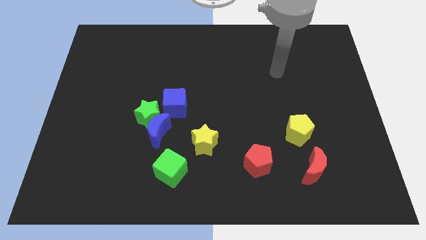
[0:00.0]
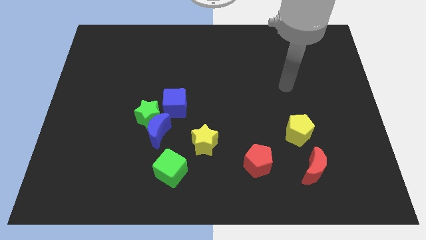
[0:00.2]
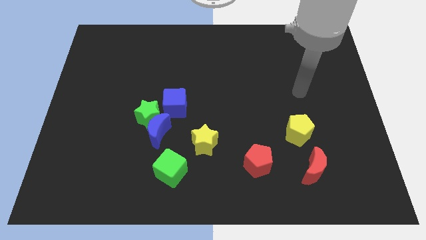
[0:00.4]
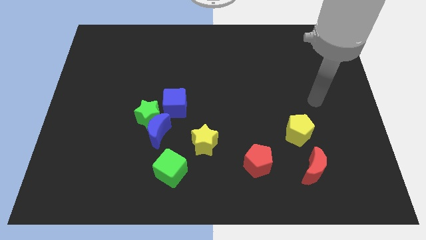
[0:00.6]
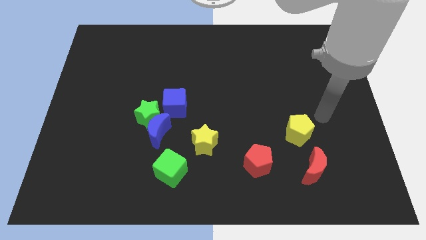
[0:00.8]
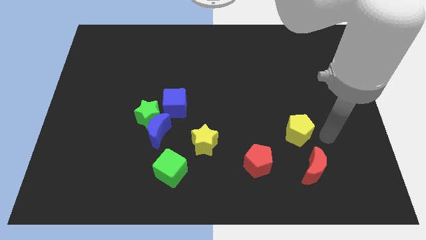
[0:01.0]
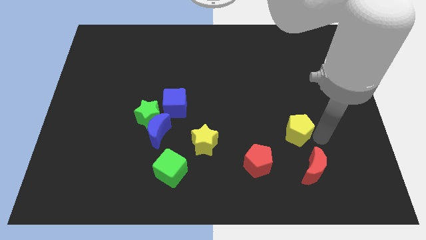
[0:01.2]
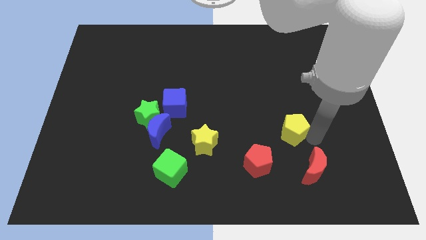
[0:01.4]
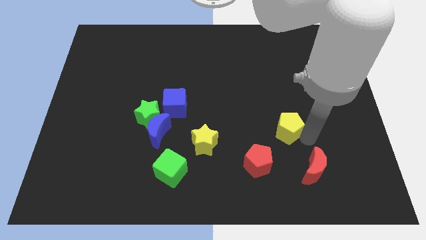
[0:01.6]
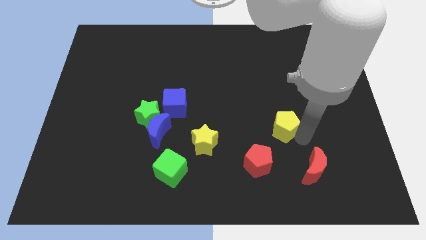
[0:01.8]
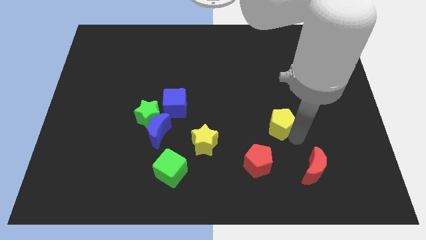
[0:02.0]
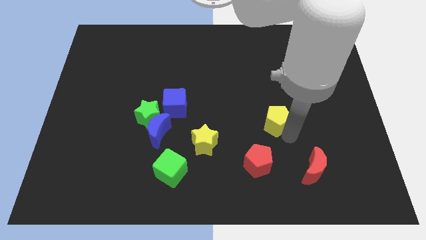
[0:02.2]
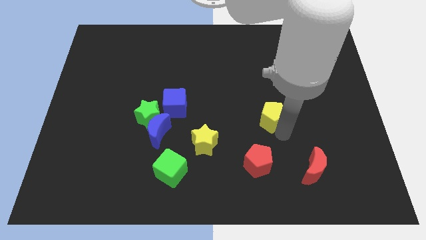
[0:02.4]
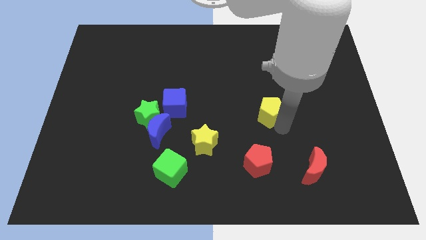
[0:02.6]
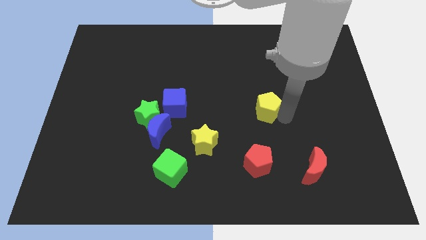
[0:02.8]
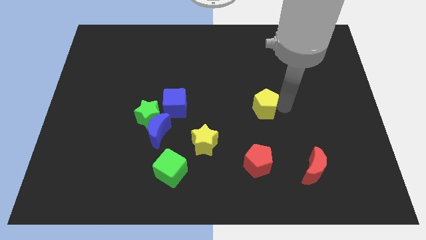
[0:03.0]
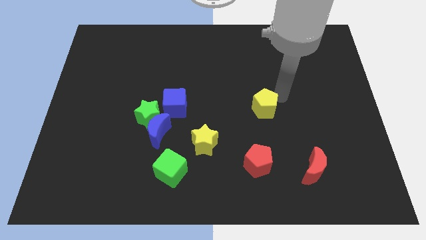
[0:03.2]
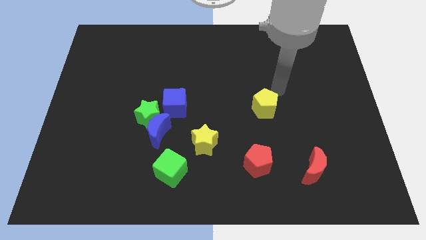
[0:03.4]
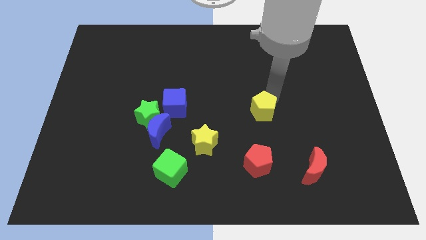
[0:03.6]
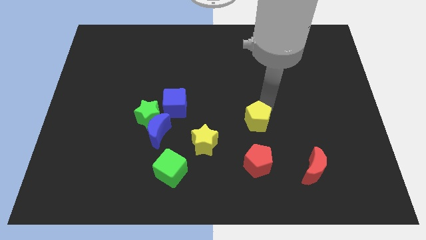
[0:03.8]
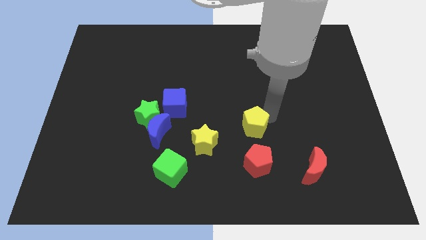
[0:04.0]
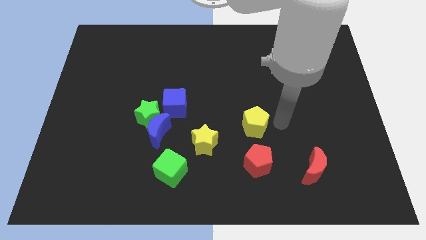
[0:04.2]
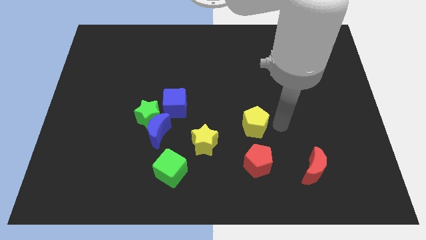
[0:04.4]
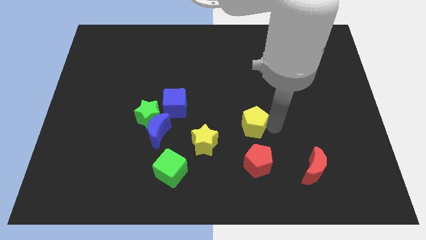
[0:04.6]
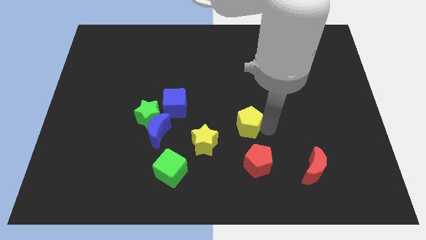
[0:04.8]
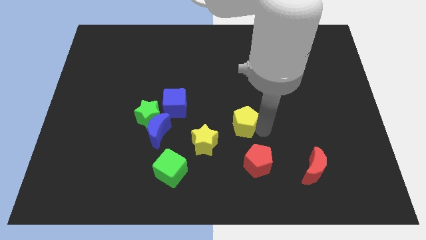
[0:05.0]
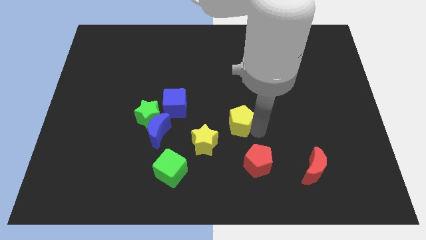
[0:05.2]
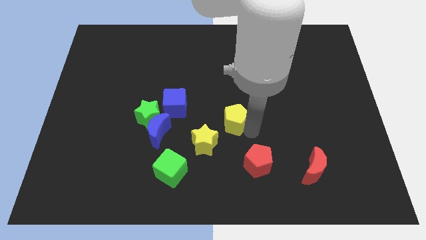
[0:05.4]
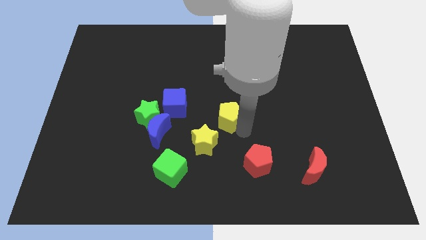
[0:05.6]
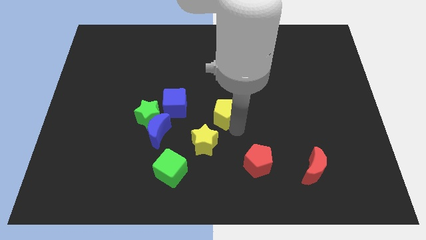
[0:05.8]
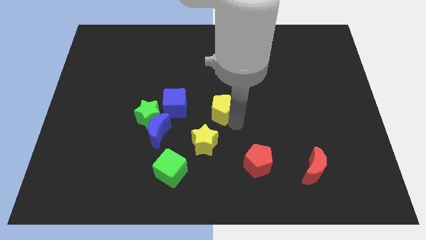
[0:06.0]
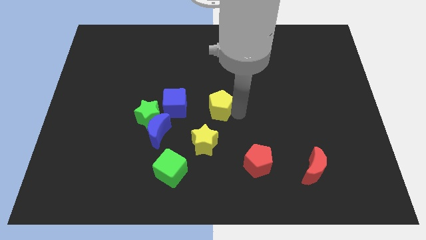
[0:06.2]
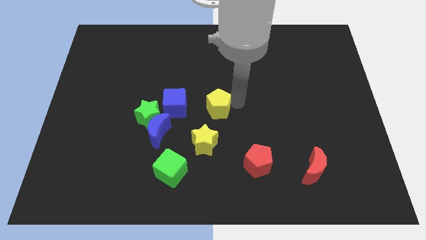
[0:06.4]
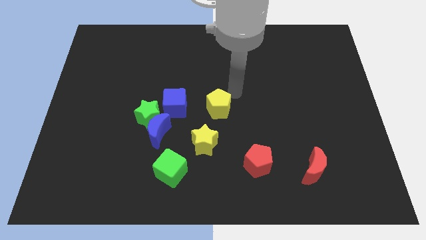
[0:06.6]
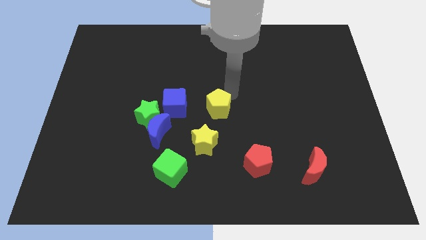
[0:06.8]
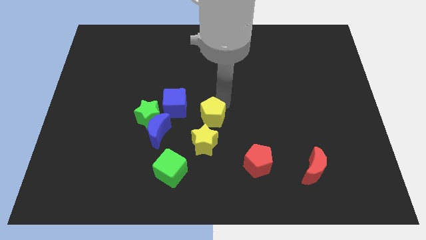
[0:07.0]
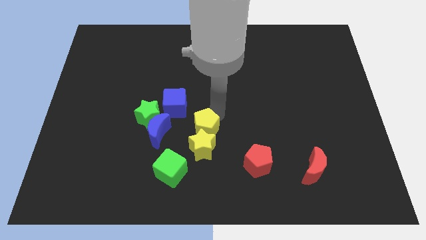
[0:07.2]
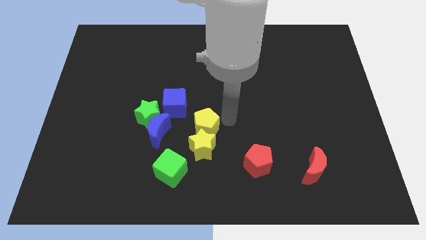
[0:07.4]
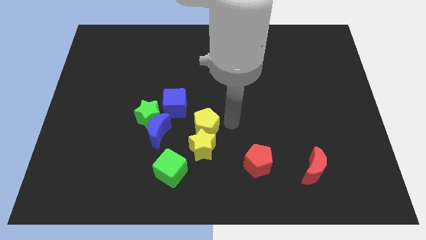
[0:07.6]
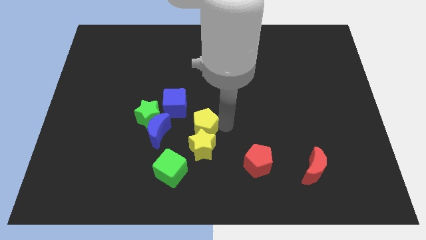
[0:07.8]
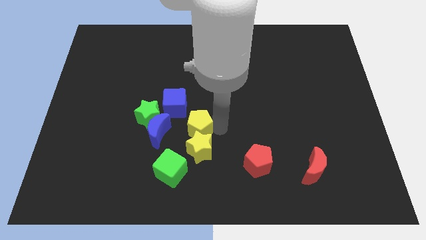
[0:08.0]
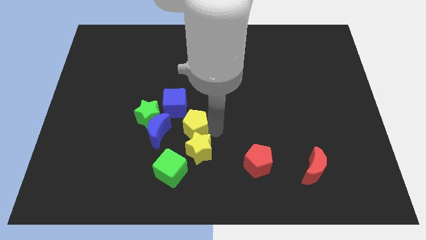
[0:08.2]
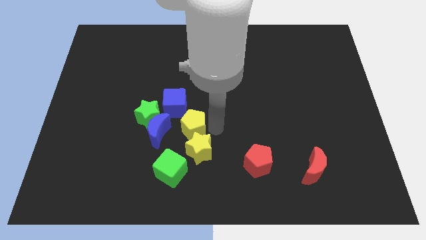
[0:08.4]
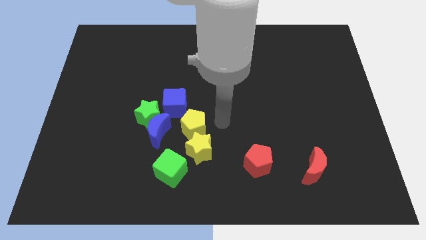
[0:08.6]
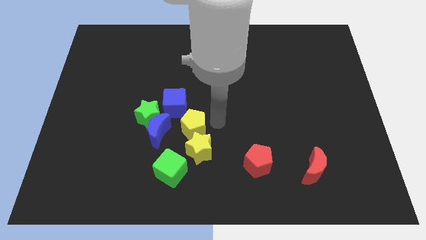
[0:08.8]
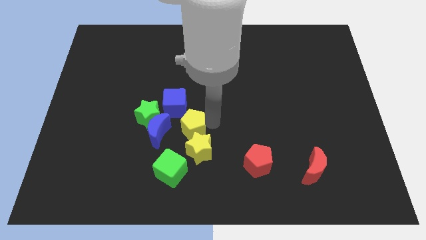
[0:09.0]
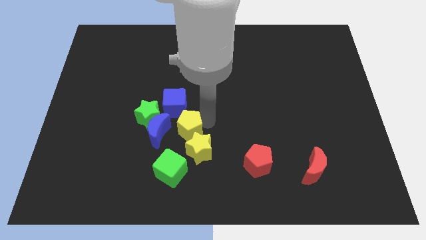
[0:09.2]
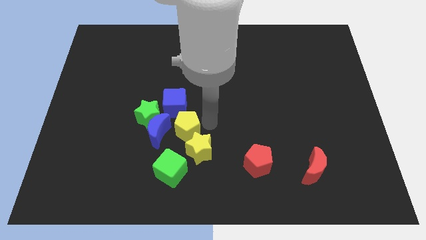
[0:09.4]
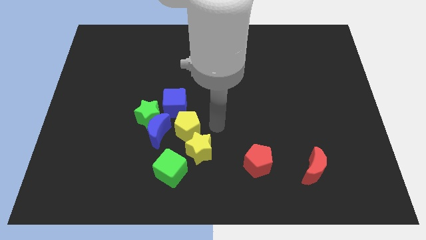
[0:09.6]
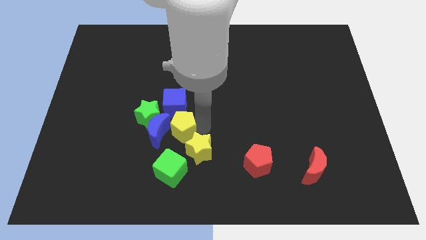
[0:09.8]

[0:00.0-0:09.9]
put the yellow pentagon next to the blue moon

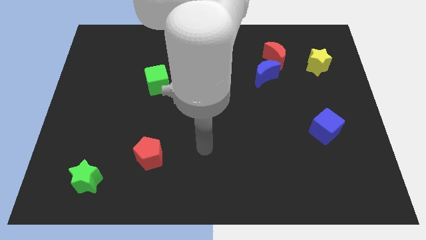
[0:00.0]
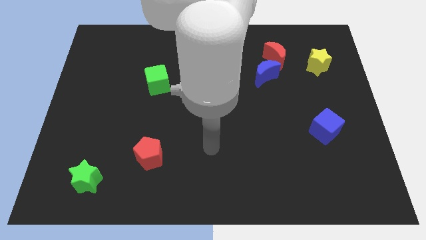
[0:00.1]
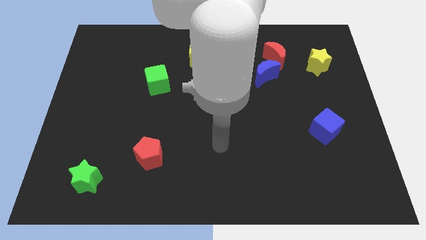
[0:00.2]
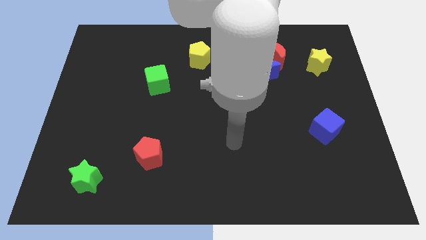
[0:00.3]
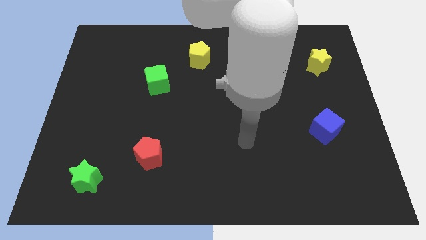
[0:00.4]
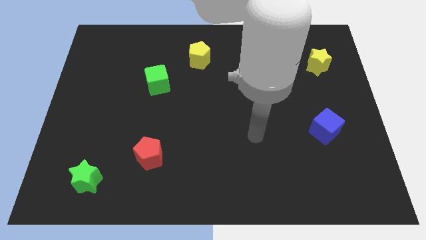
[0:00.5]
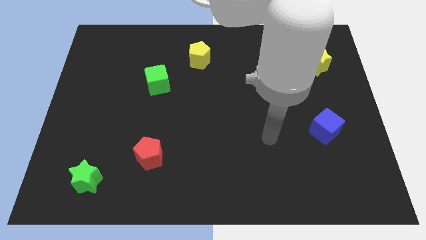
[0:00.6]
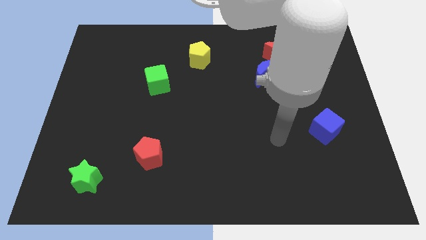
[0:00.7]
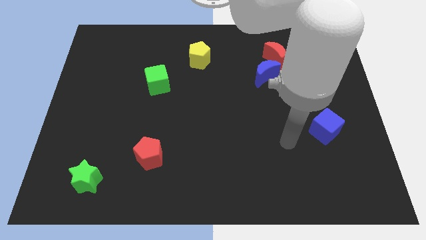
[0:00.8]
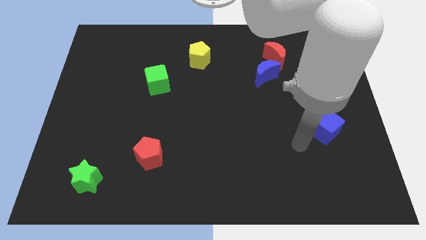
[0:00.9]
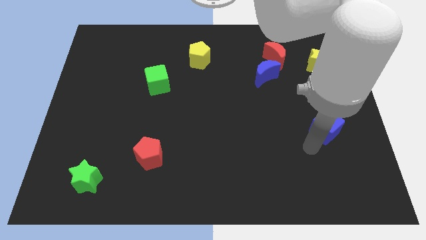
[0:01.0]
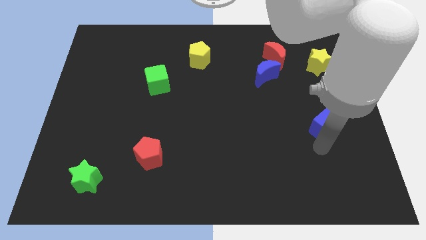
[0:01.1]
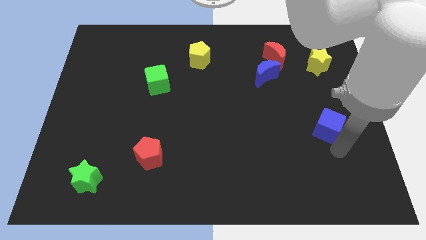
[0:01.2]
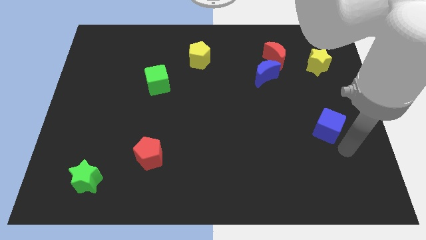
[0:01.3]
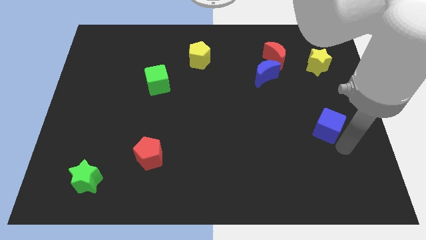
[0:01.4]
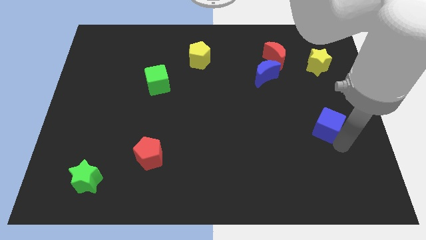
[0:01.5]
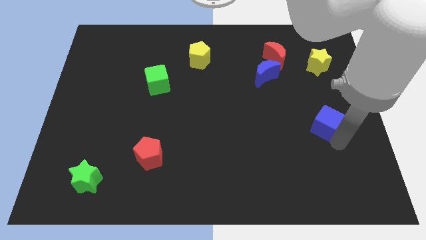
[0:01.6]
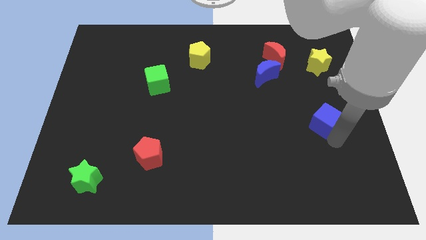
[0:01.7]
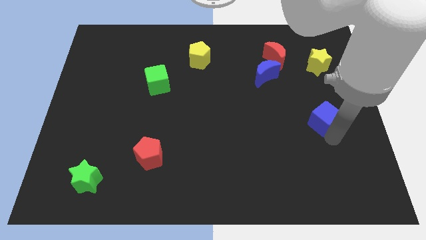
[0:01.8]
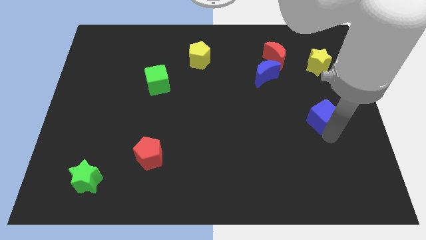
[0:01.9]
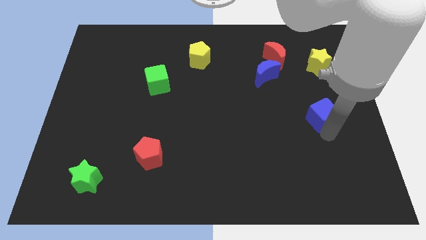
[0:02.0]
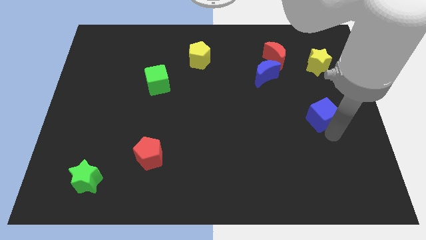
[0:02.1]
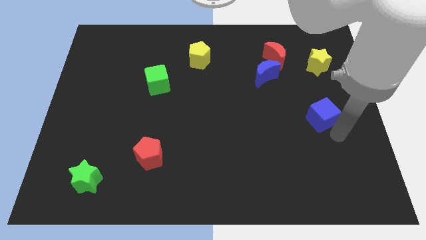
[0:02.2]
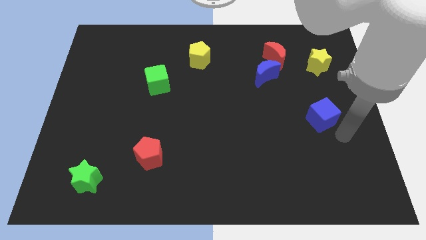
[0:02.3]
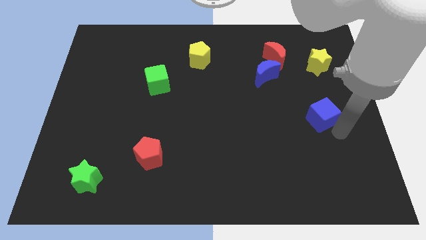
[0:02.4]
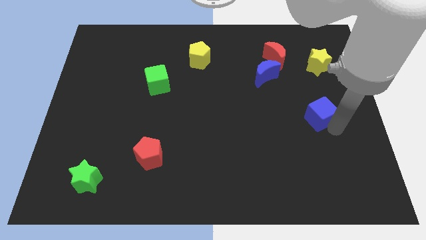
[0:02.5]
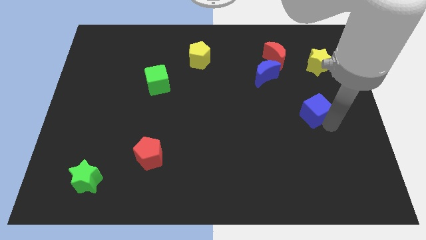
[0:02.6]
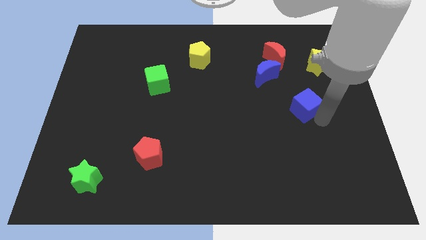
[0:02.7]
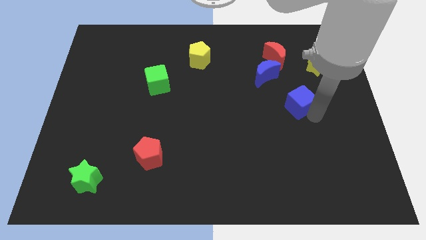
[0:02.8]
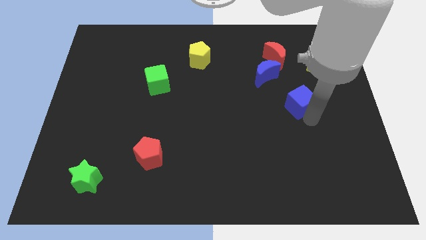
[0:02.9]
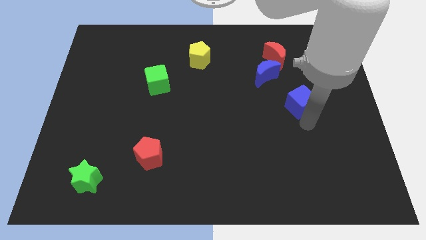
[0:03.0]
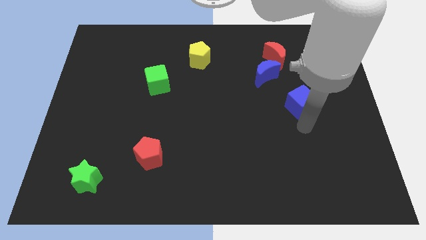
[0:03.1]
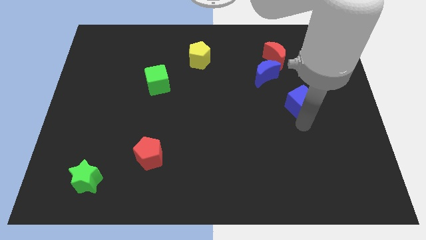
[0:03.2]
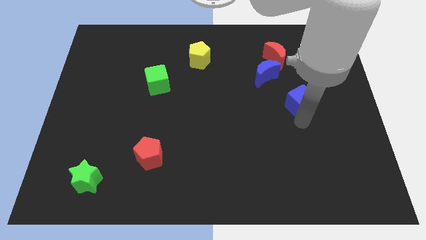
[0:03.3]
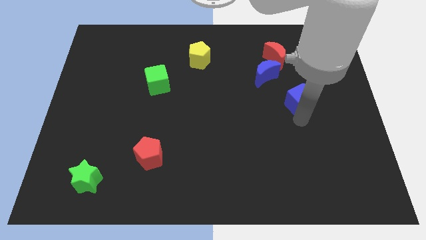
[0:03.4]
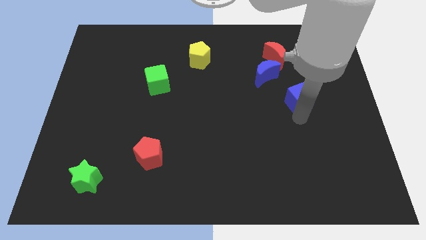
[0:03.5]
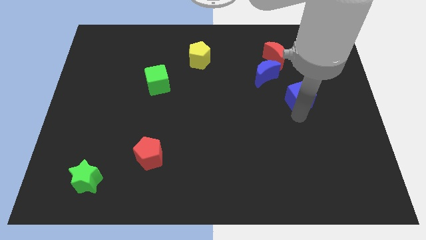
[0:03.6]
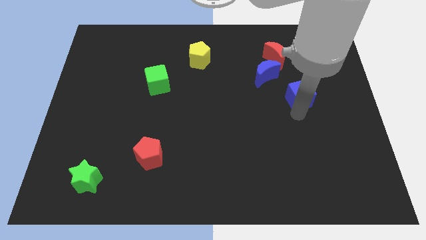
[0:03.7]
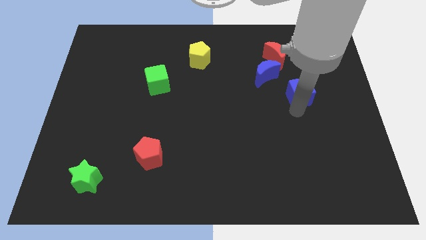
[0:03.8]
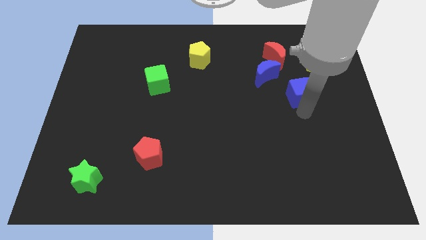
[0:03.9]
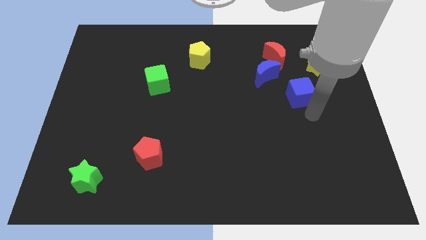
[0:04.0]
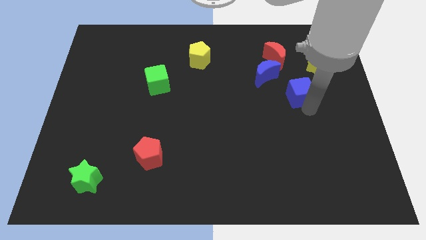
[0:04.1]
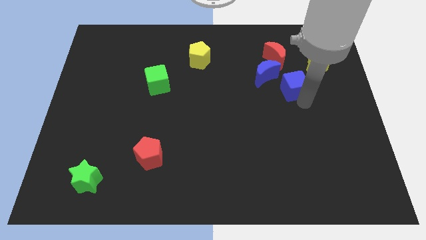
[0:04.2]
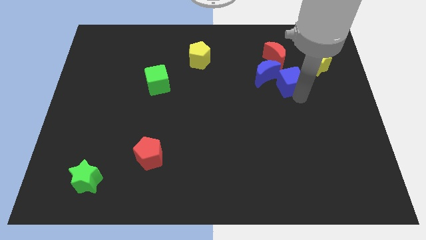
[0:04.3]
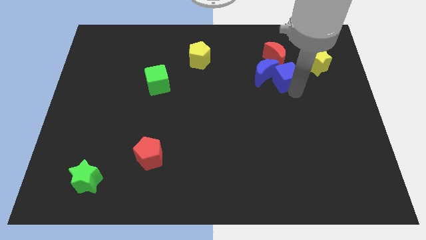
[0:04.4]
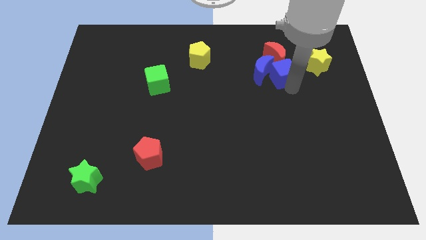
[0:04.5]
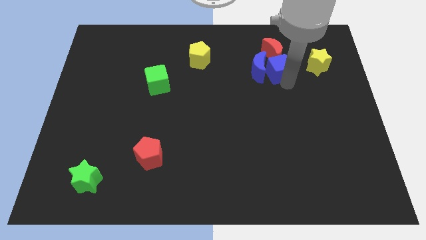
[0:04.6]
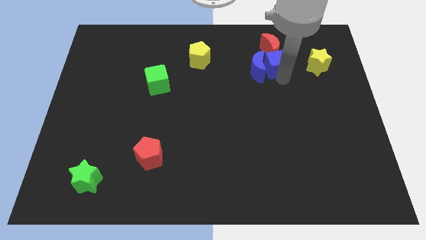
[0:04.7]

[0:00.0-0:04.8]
slide the blue cube towards the red moon
